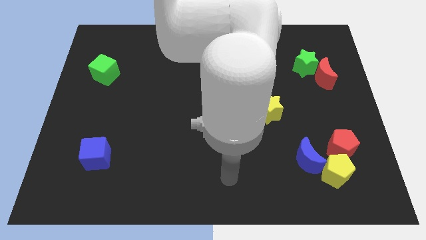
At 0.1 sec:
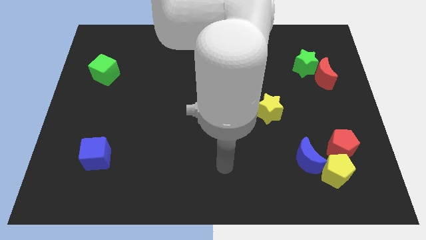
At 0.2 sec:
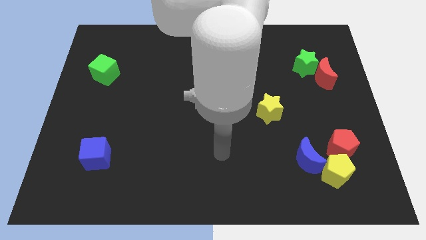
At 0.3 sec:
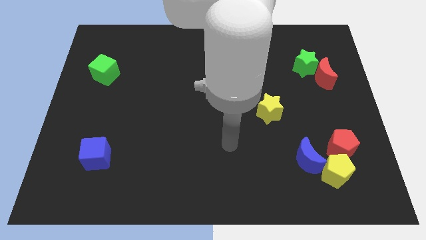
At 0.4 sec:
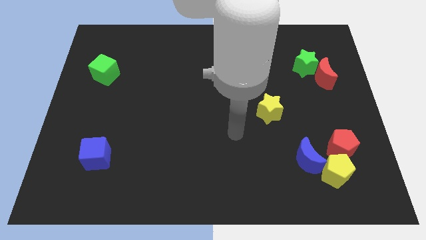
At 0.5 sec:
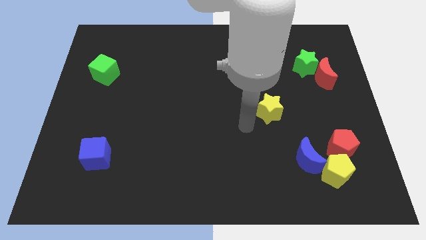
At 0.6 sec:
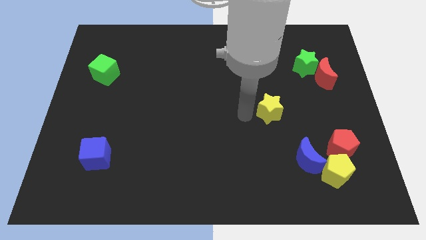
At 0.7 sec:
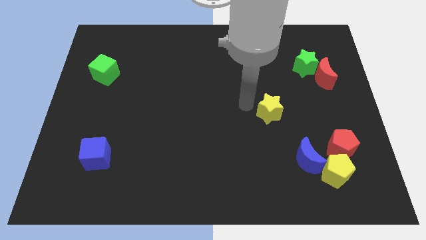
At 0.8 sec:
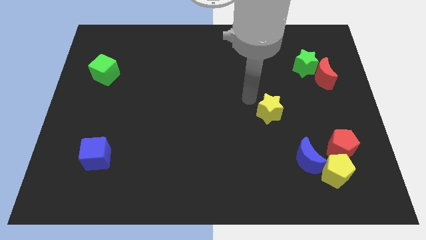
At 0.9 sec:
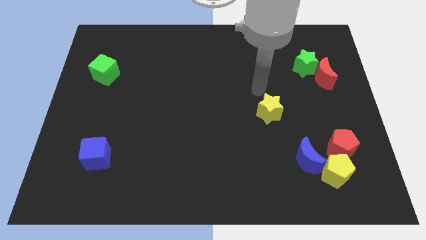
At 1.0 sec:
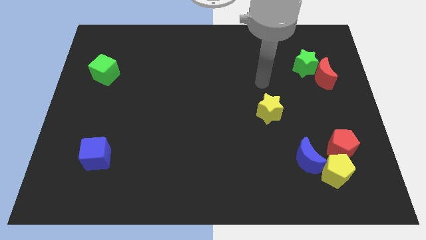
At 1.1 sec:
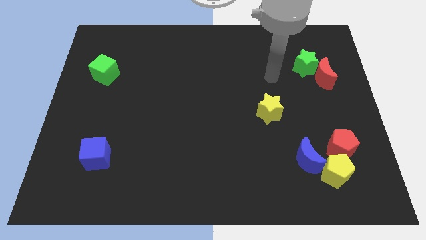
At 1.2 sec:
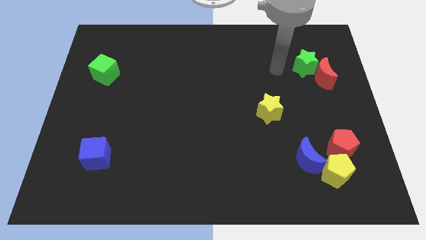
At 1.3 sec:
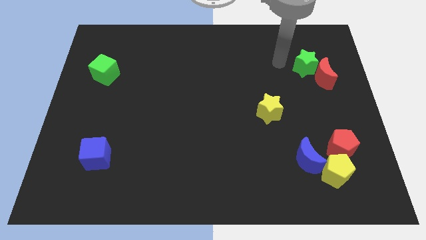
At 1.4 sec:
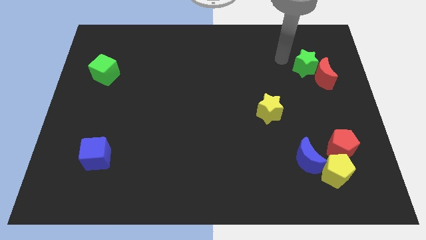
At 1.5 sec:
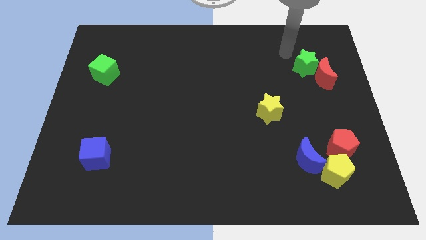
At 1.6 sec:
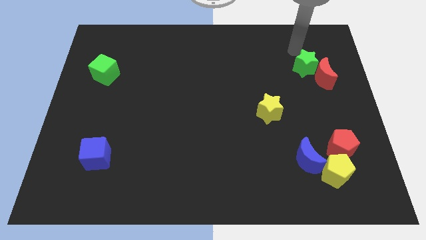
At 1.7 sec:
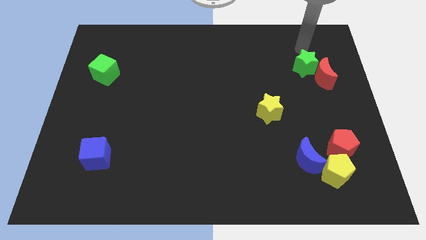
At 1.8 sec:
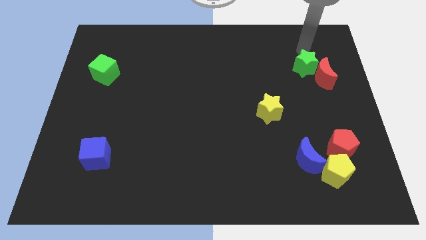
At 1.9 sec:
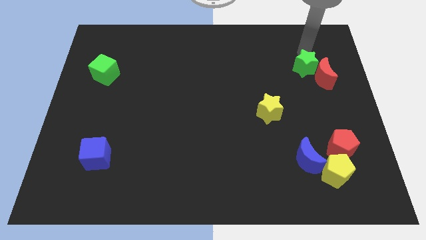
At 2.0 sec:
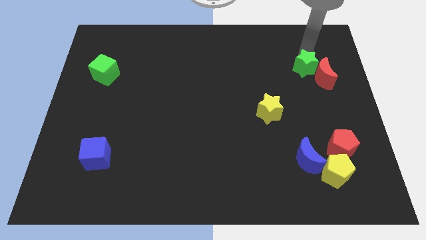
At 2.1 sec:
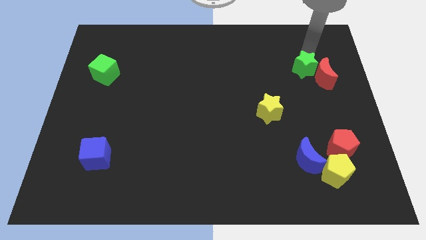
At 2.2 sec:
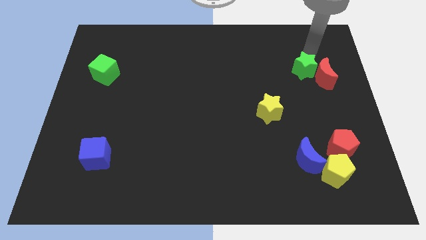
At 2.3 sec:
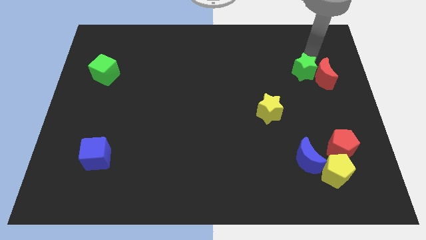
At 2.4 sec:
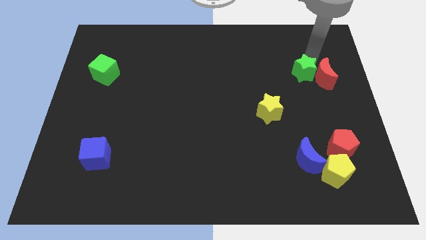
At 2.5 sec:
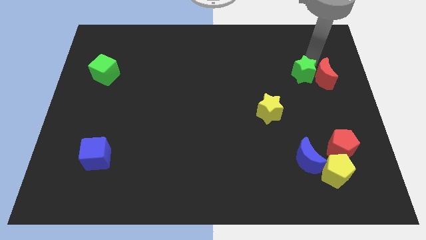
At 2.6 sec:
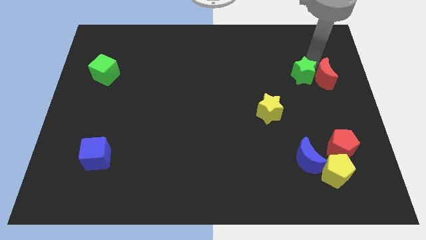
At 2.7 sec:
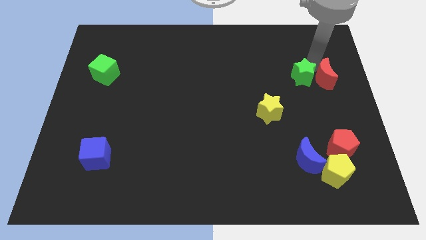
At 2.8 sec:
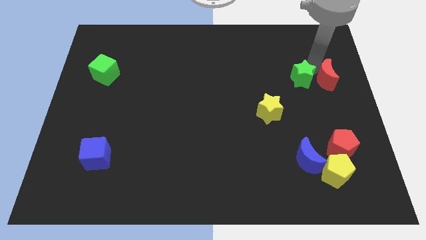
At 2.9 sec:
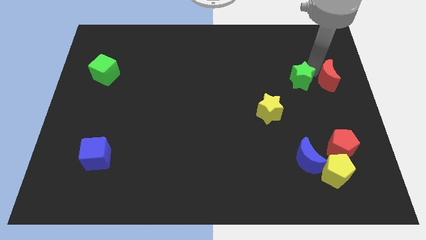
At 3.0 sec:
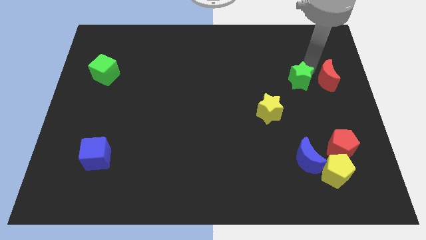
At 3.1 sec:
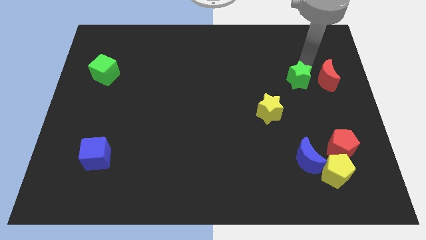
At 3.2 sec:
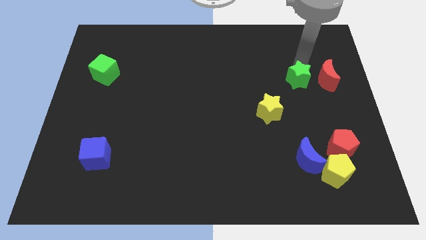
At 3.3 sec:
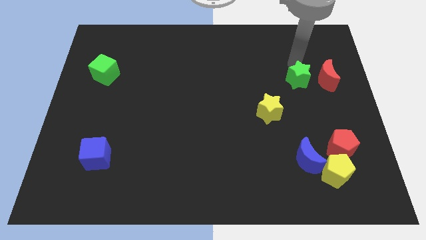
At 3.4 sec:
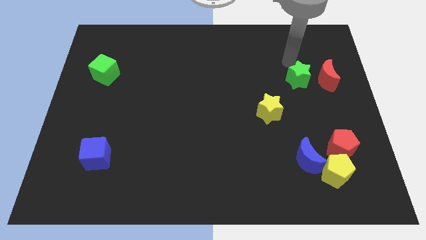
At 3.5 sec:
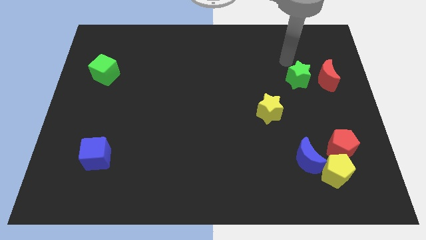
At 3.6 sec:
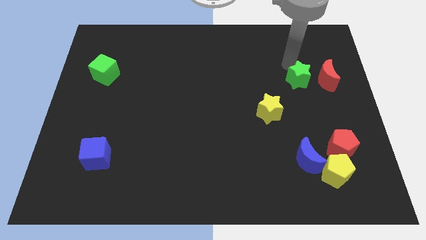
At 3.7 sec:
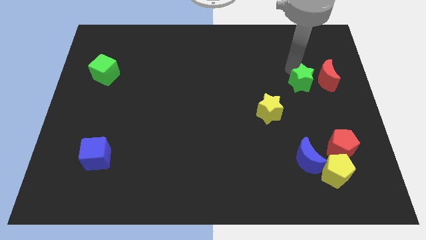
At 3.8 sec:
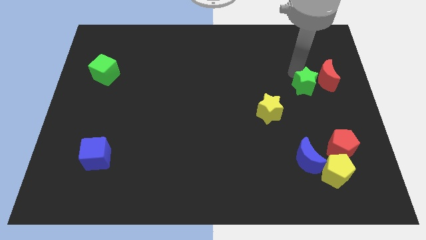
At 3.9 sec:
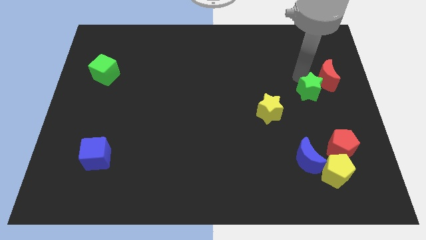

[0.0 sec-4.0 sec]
slide the green star slightly down

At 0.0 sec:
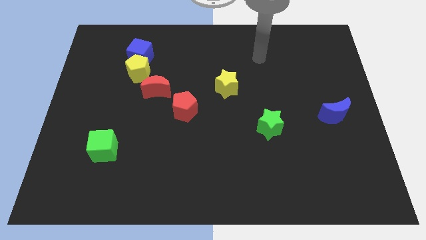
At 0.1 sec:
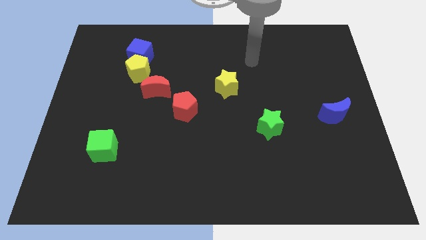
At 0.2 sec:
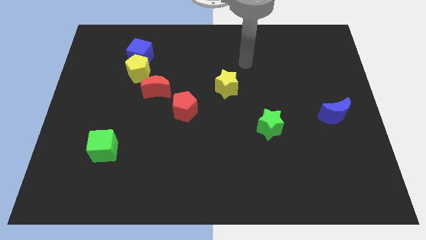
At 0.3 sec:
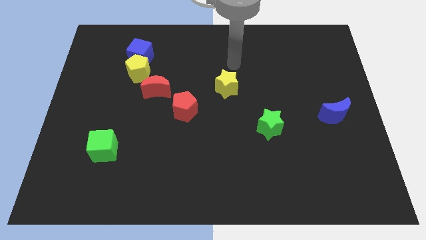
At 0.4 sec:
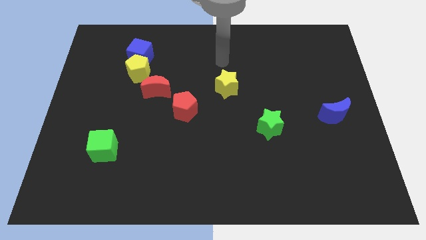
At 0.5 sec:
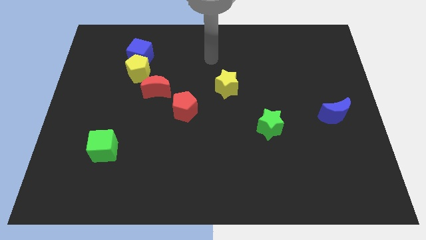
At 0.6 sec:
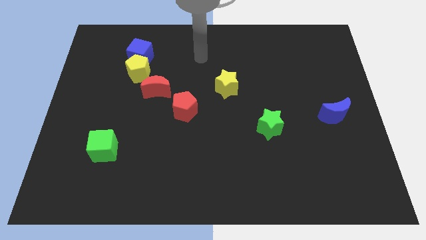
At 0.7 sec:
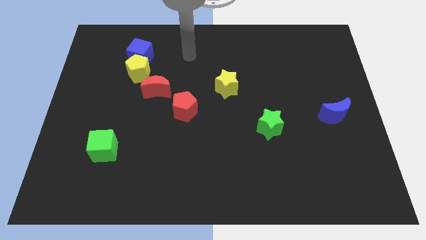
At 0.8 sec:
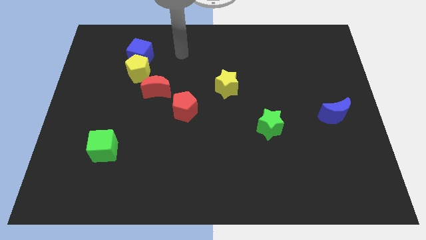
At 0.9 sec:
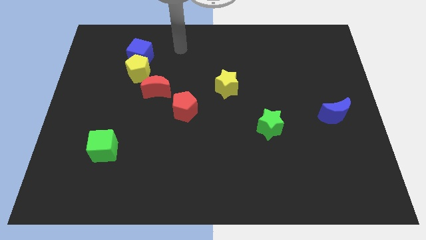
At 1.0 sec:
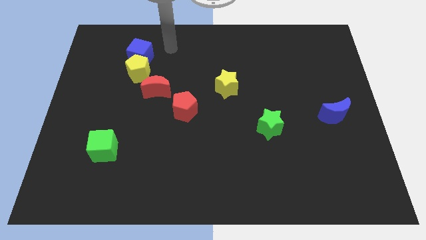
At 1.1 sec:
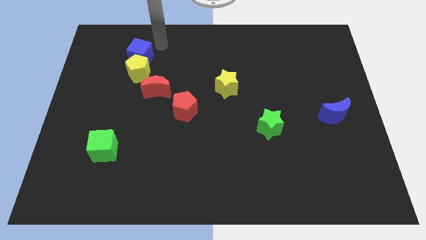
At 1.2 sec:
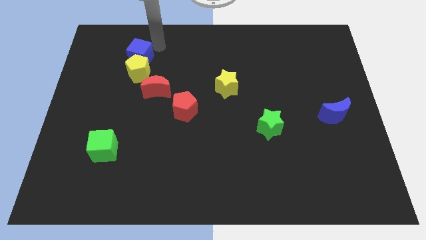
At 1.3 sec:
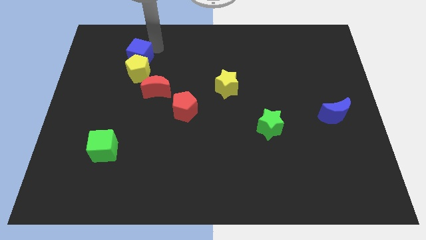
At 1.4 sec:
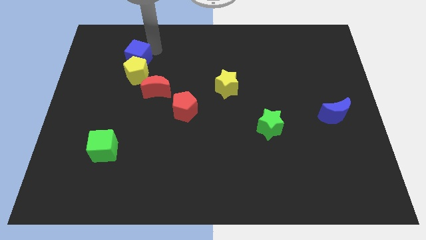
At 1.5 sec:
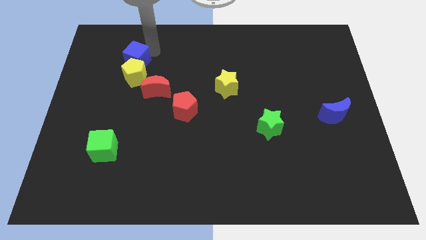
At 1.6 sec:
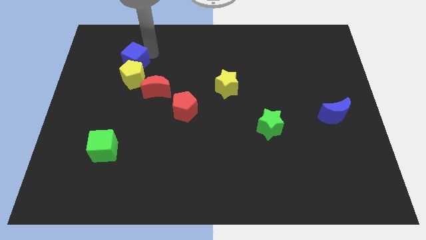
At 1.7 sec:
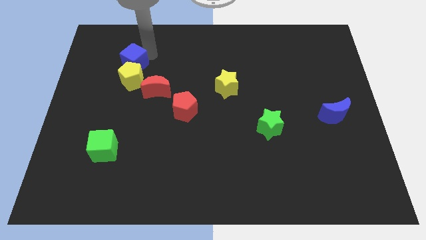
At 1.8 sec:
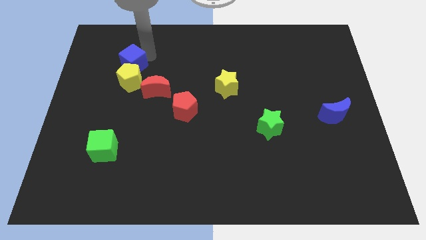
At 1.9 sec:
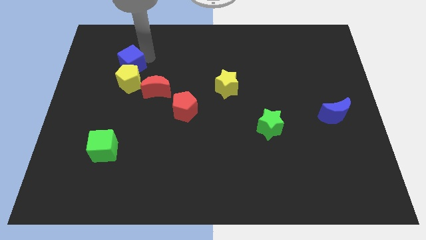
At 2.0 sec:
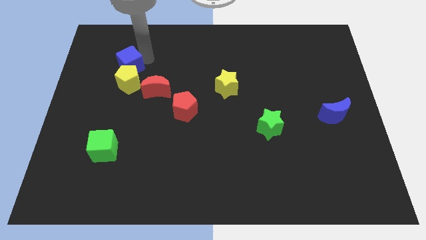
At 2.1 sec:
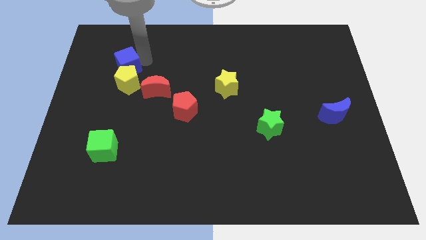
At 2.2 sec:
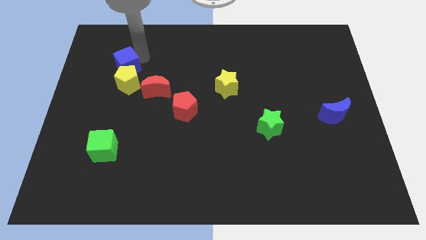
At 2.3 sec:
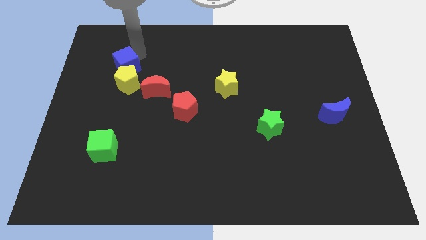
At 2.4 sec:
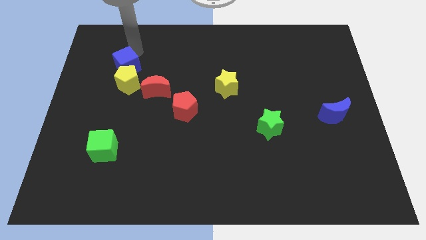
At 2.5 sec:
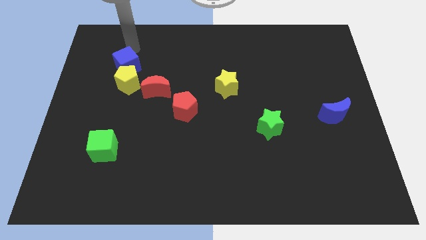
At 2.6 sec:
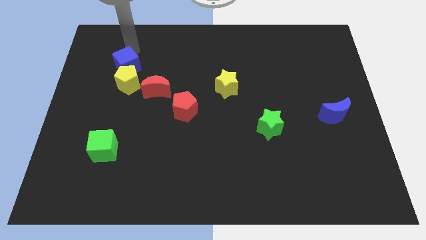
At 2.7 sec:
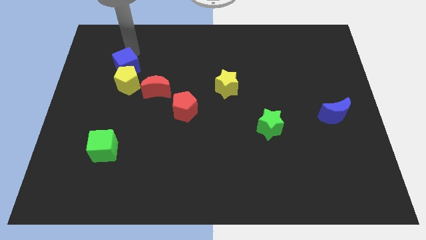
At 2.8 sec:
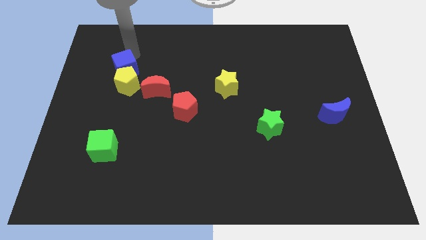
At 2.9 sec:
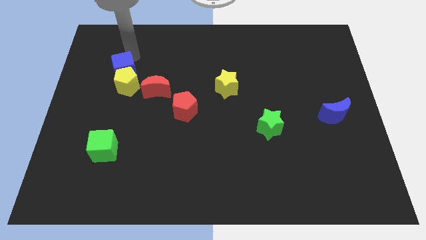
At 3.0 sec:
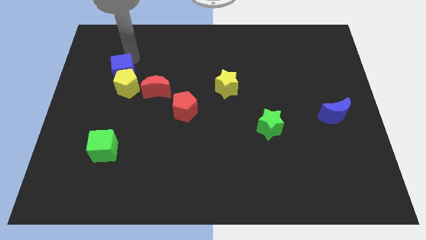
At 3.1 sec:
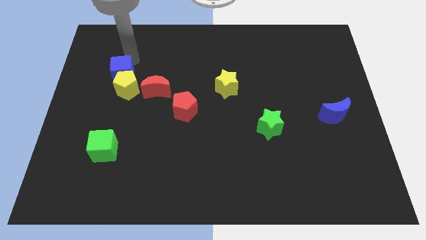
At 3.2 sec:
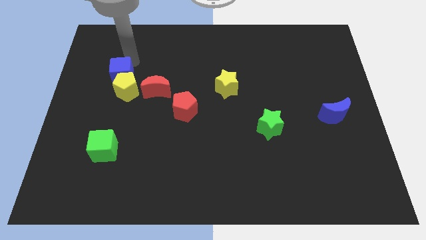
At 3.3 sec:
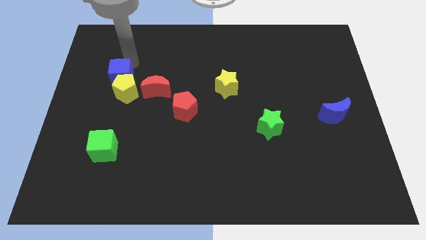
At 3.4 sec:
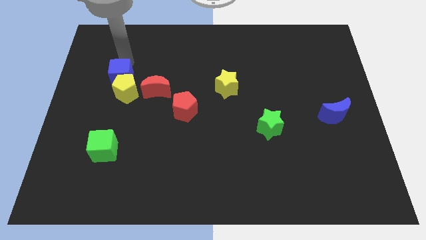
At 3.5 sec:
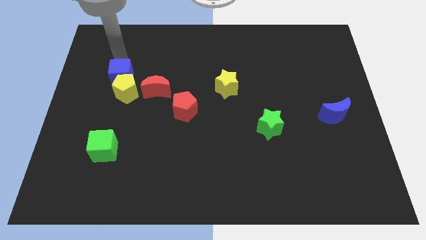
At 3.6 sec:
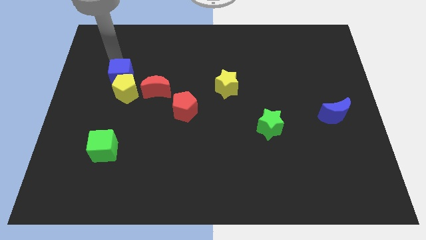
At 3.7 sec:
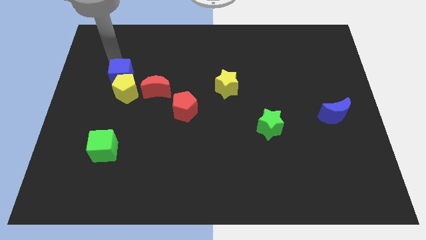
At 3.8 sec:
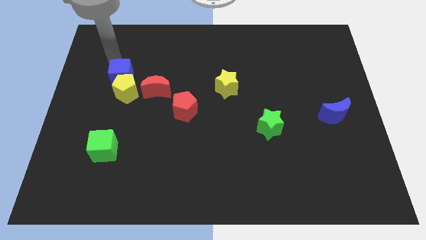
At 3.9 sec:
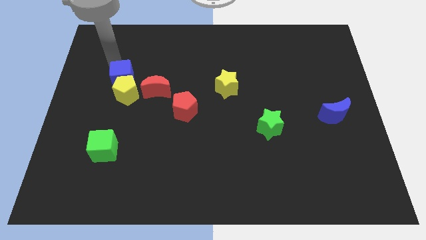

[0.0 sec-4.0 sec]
move the blue cube somewhat down

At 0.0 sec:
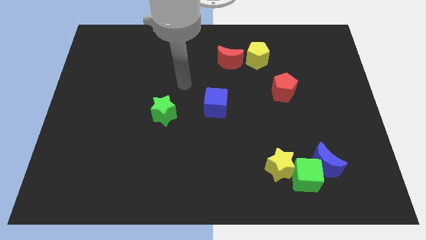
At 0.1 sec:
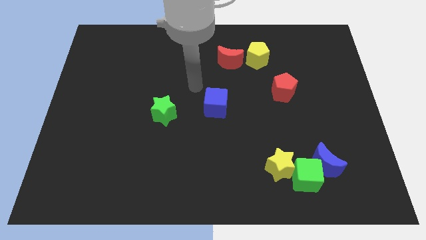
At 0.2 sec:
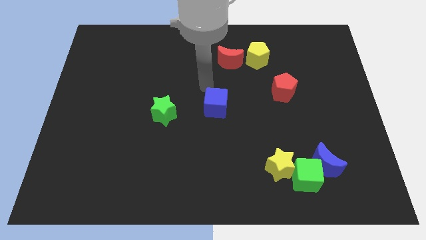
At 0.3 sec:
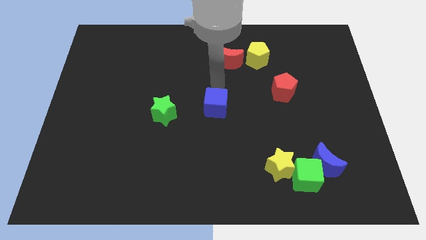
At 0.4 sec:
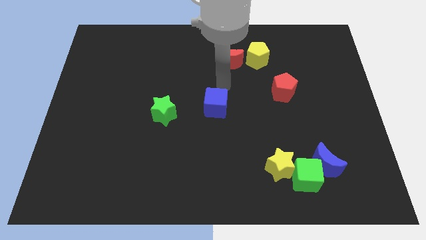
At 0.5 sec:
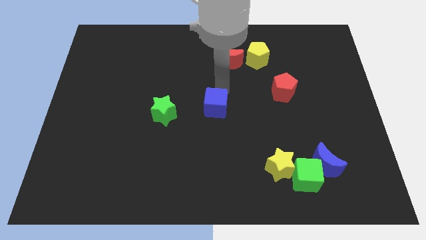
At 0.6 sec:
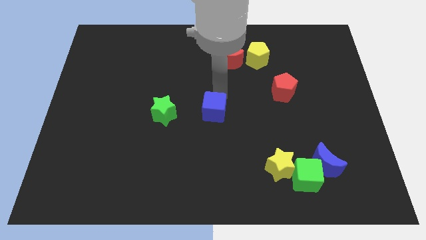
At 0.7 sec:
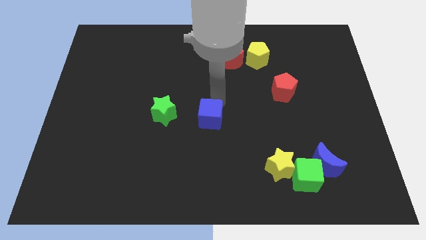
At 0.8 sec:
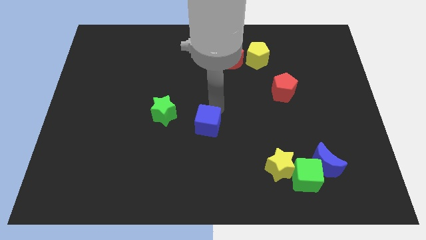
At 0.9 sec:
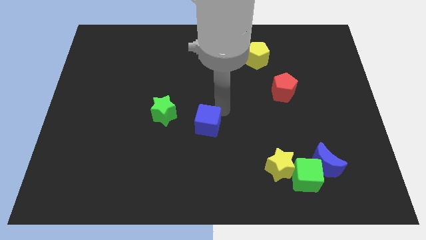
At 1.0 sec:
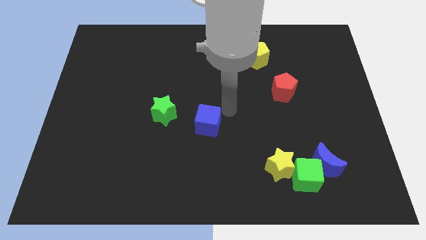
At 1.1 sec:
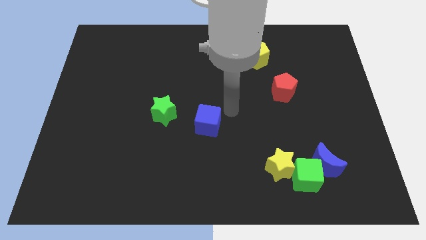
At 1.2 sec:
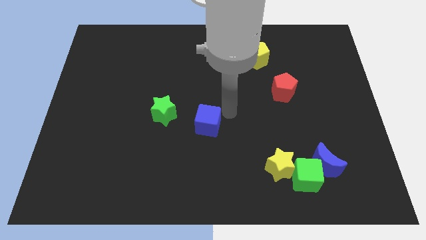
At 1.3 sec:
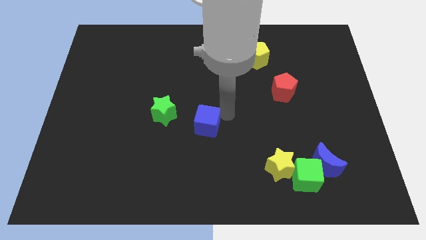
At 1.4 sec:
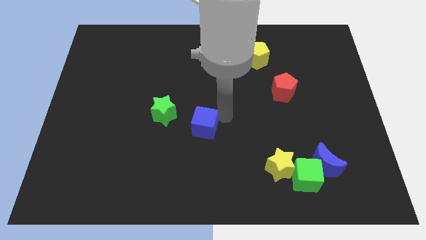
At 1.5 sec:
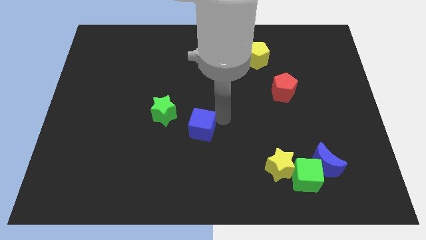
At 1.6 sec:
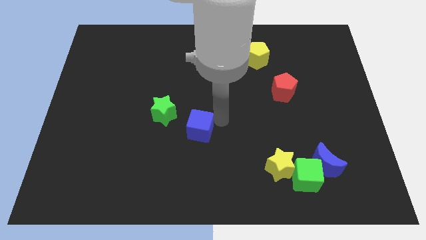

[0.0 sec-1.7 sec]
push the blue cube down and then to the left a little bit
